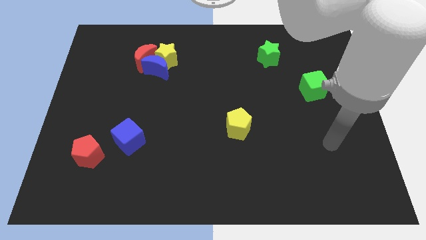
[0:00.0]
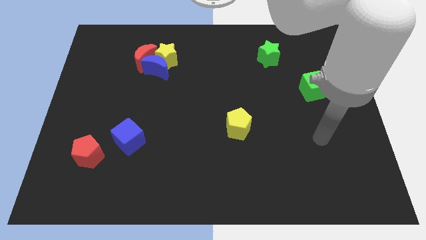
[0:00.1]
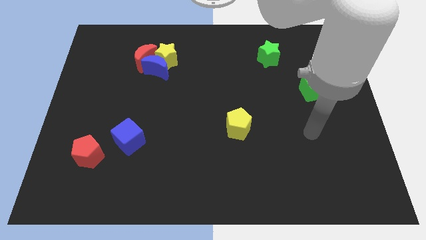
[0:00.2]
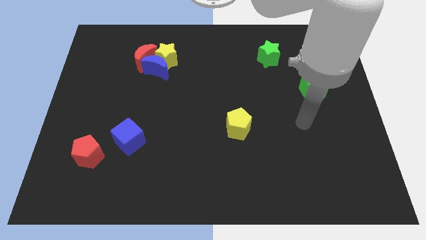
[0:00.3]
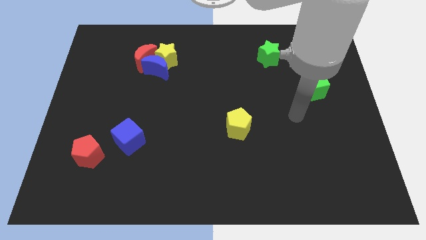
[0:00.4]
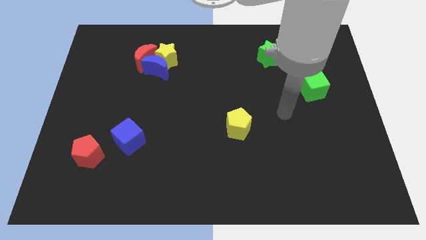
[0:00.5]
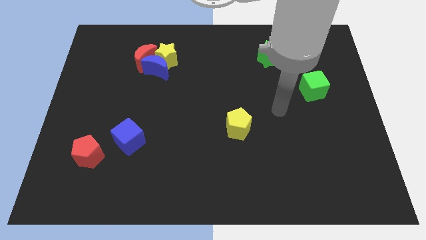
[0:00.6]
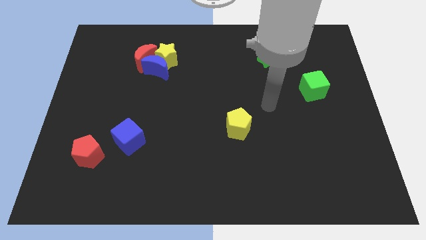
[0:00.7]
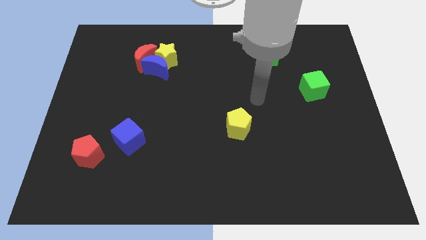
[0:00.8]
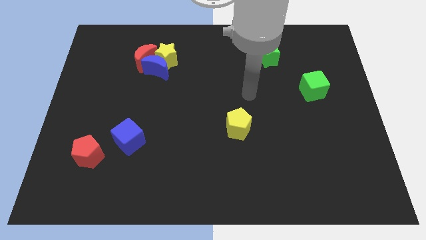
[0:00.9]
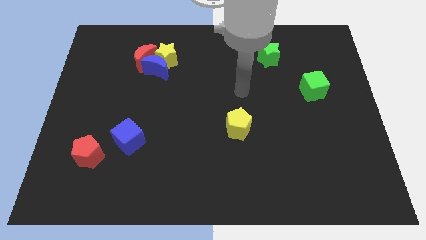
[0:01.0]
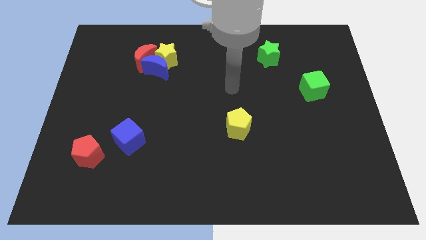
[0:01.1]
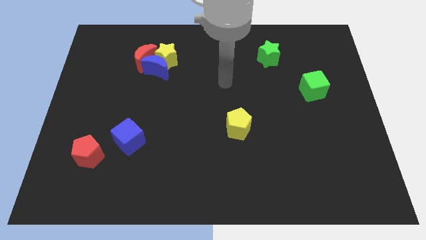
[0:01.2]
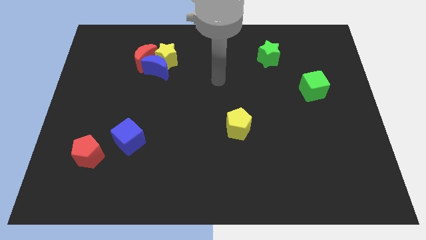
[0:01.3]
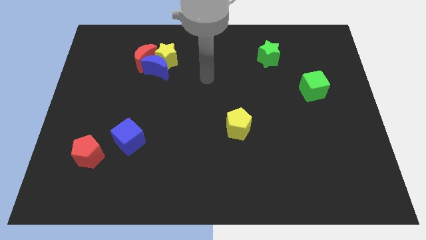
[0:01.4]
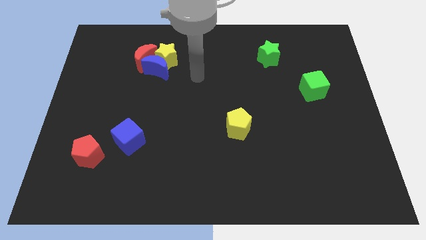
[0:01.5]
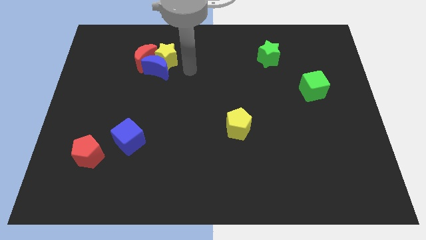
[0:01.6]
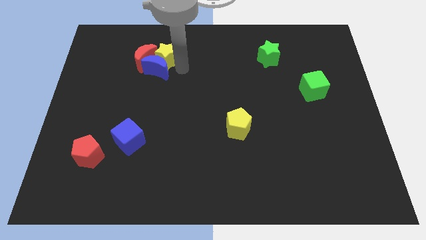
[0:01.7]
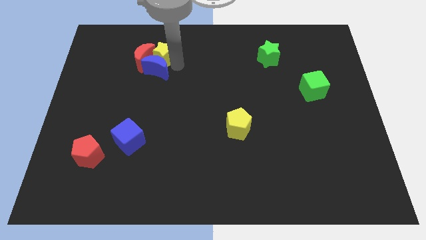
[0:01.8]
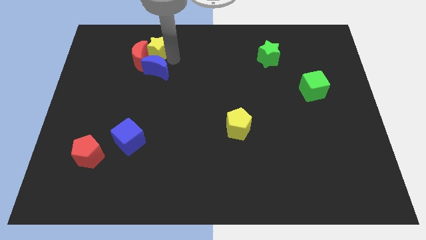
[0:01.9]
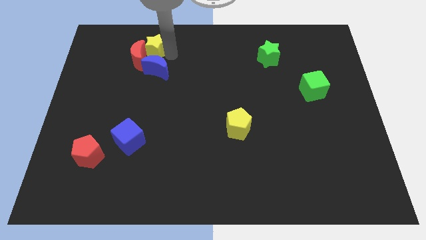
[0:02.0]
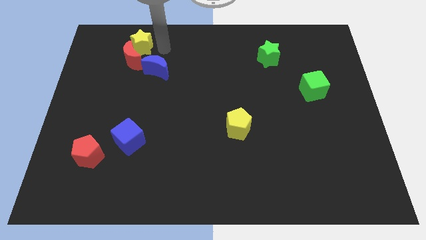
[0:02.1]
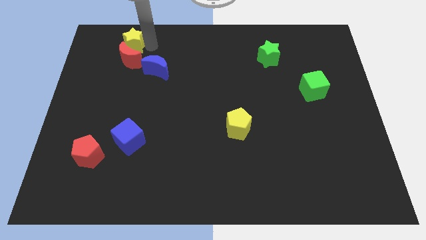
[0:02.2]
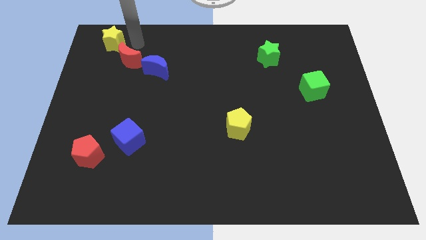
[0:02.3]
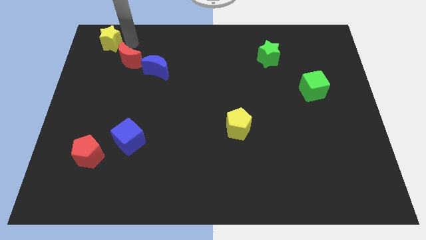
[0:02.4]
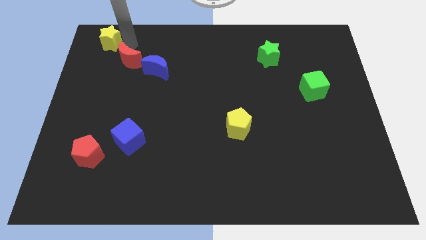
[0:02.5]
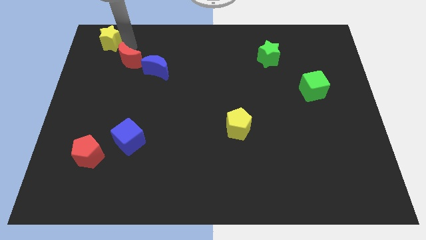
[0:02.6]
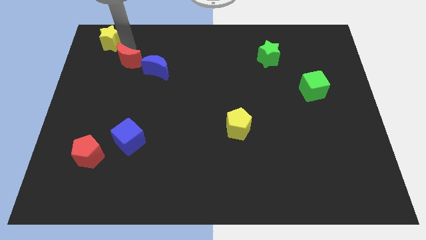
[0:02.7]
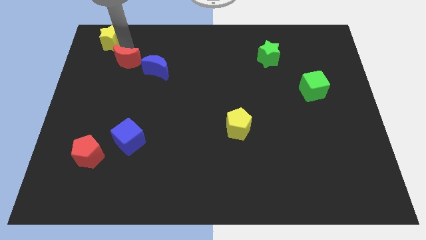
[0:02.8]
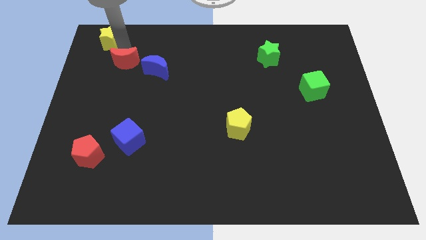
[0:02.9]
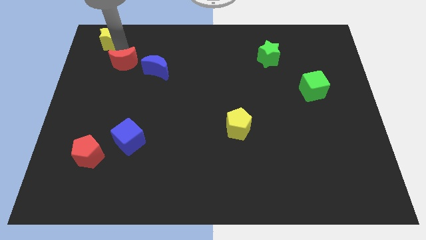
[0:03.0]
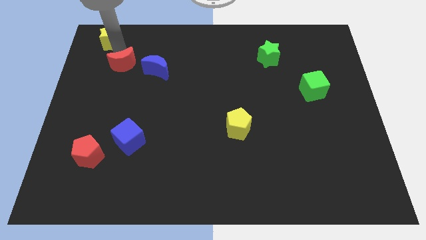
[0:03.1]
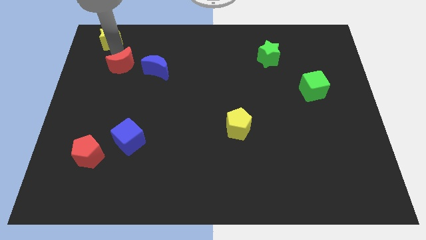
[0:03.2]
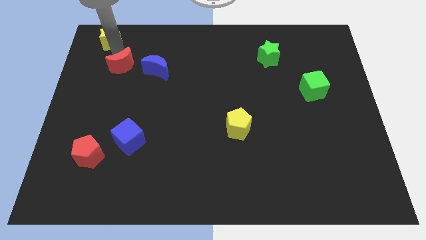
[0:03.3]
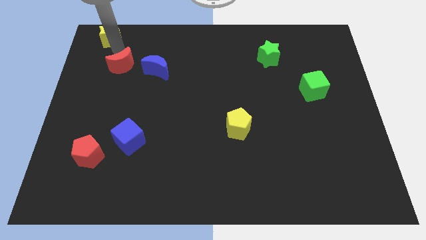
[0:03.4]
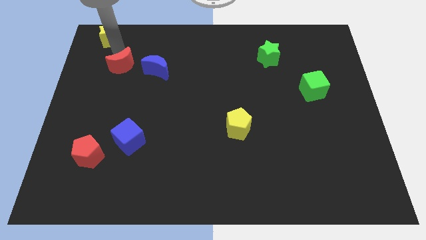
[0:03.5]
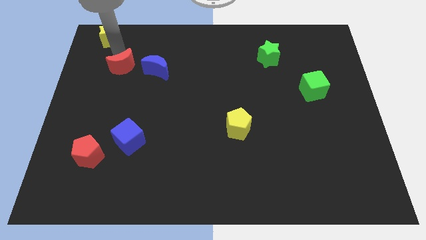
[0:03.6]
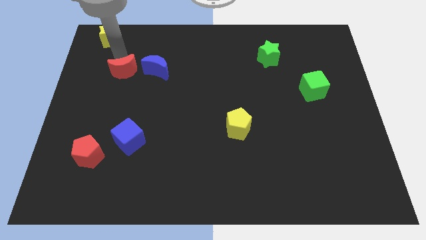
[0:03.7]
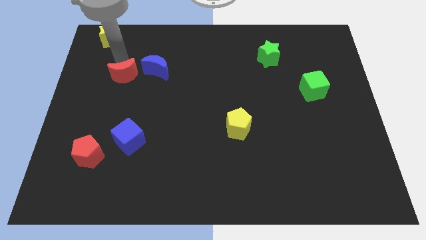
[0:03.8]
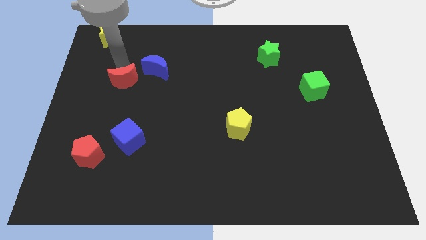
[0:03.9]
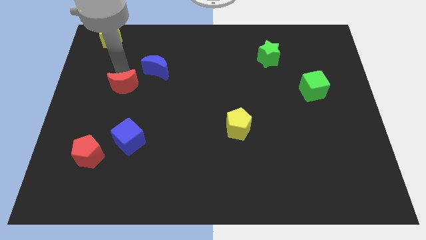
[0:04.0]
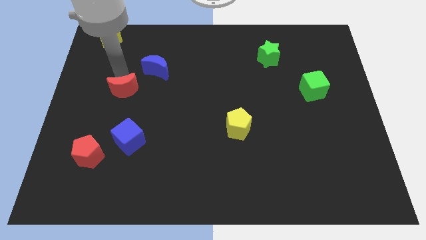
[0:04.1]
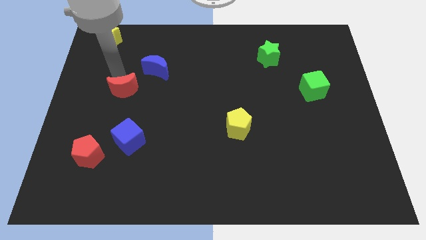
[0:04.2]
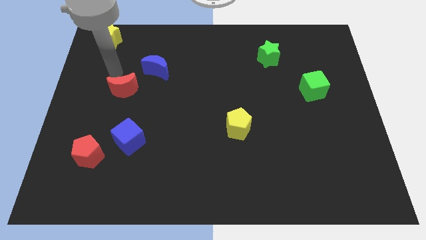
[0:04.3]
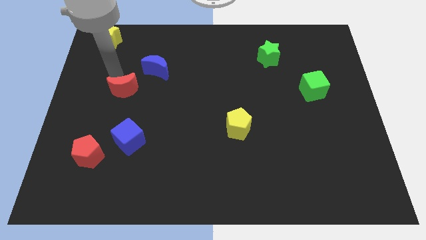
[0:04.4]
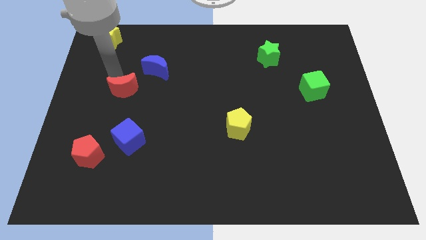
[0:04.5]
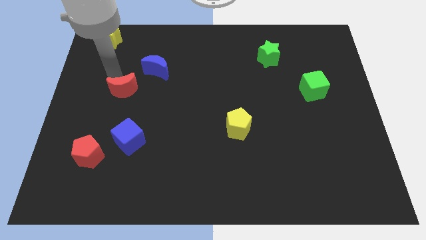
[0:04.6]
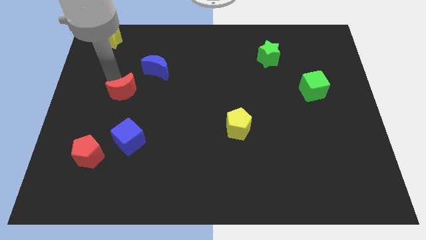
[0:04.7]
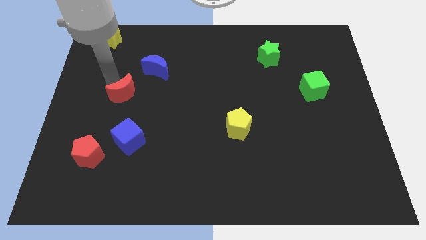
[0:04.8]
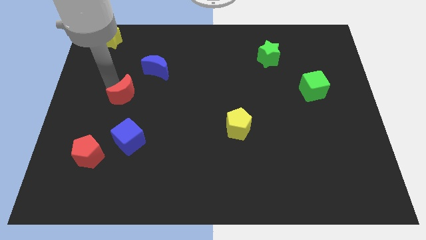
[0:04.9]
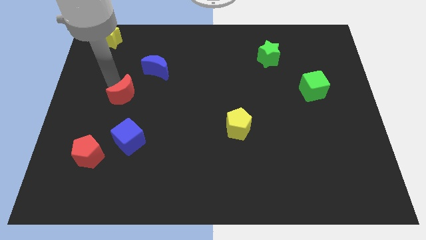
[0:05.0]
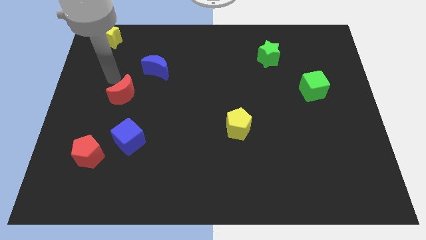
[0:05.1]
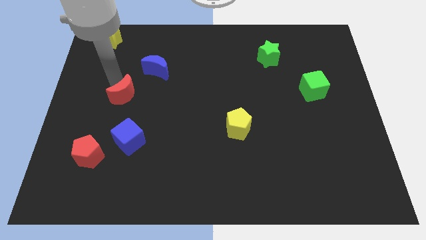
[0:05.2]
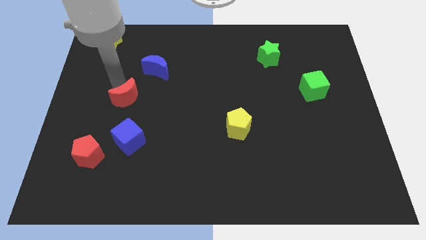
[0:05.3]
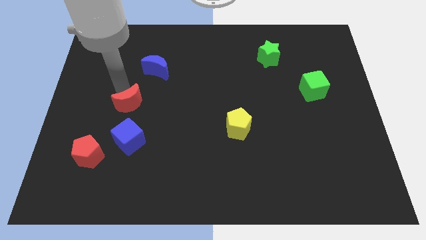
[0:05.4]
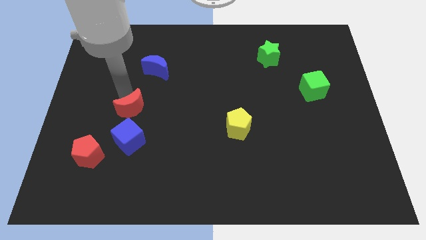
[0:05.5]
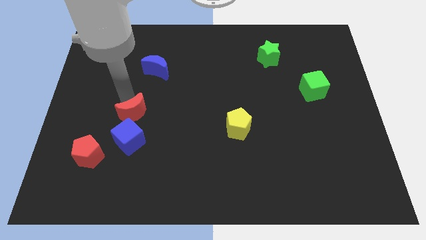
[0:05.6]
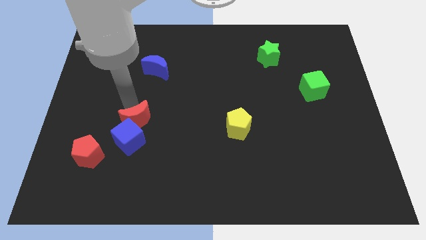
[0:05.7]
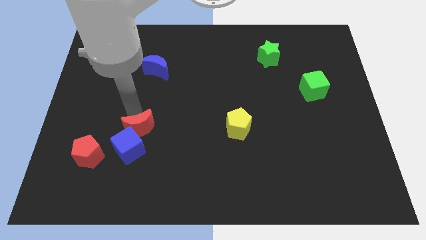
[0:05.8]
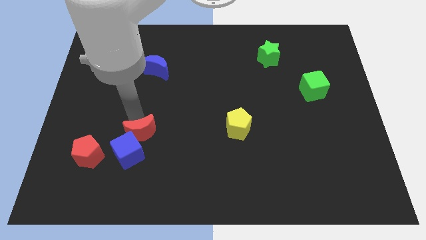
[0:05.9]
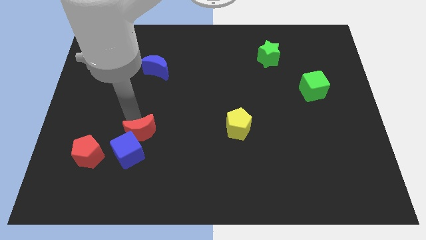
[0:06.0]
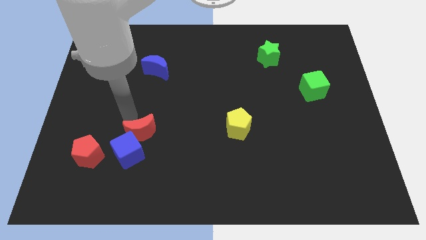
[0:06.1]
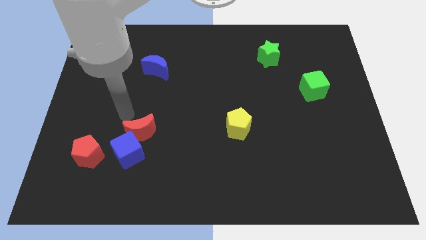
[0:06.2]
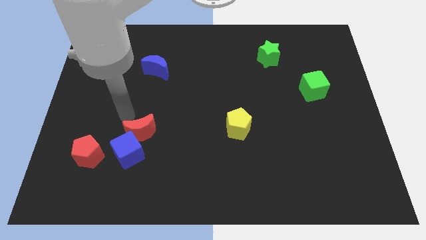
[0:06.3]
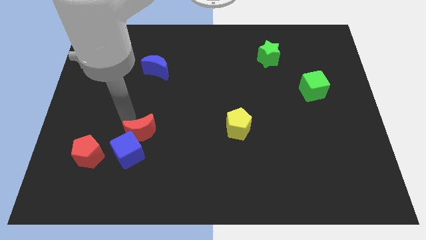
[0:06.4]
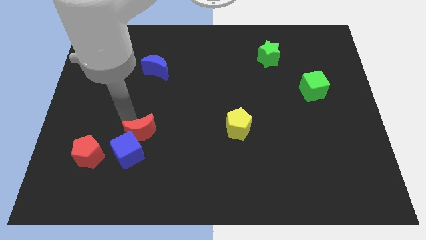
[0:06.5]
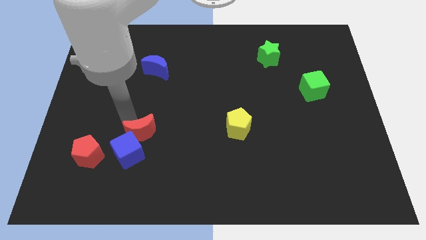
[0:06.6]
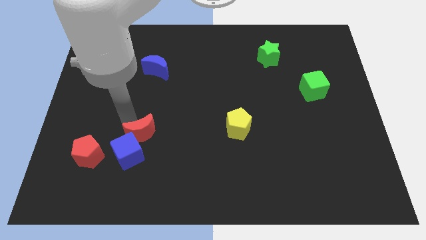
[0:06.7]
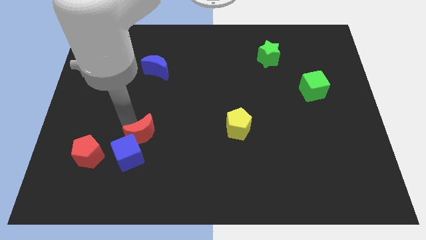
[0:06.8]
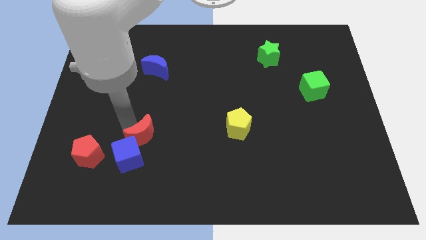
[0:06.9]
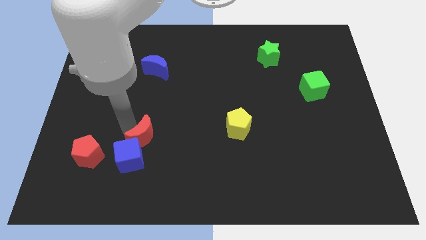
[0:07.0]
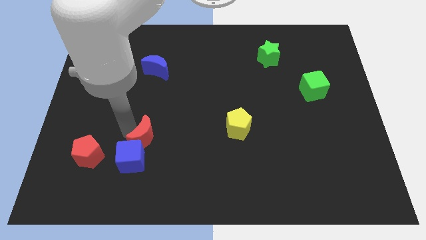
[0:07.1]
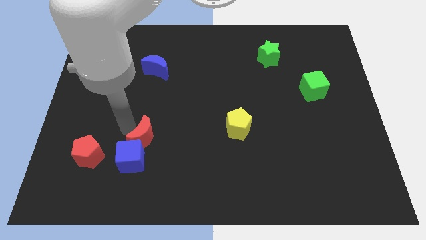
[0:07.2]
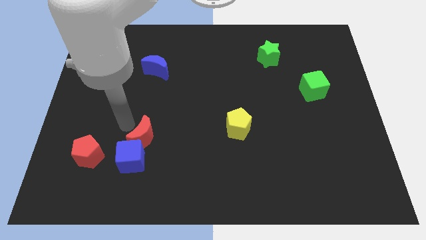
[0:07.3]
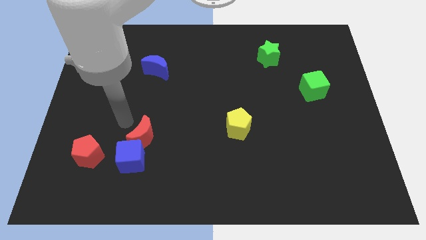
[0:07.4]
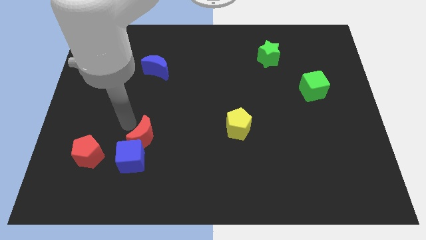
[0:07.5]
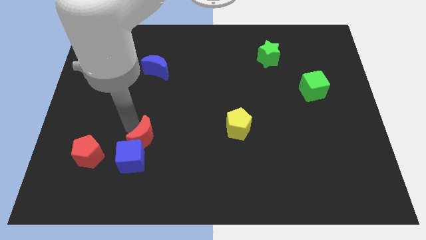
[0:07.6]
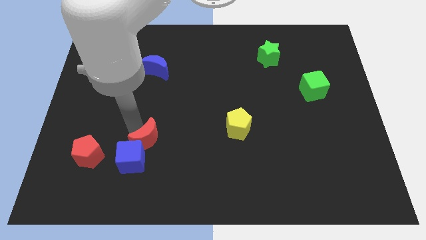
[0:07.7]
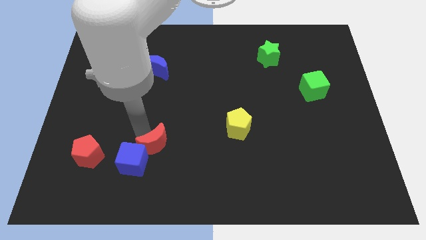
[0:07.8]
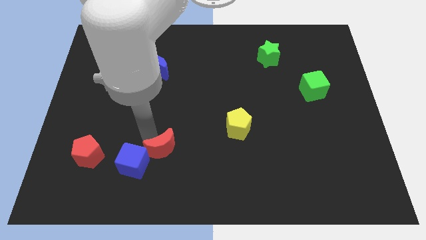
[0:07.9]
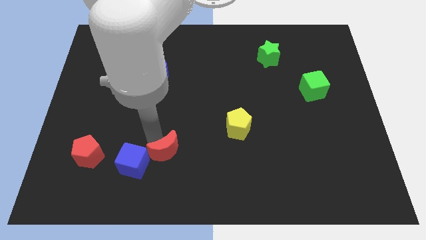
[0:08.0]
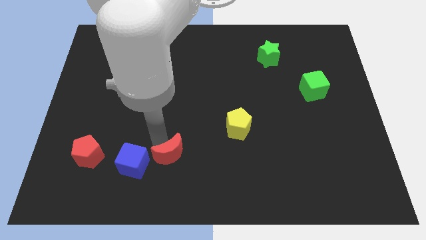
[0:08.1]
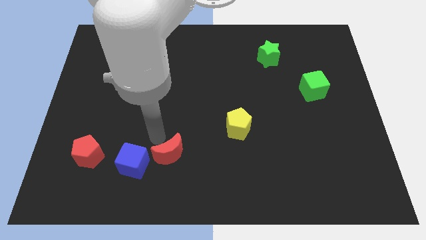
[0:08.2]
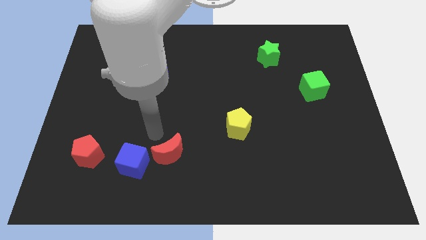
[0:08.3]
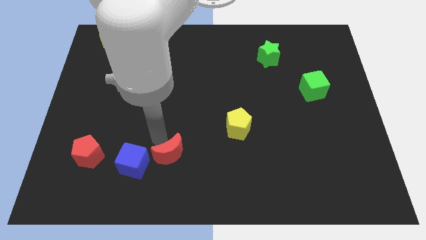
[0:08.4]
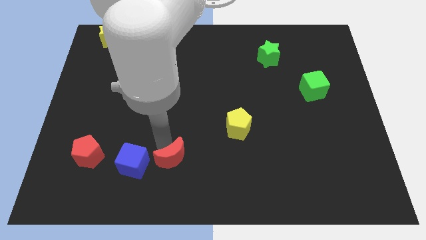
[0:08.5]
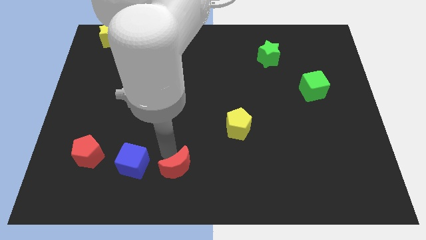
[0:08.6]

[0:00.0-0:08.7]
push the red moon to the bottom side
